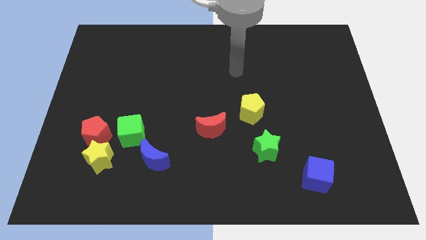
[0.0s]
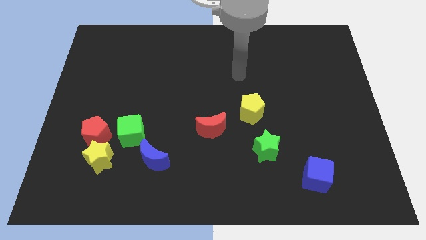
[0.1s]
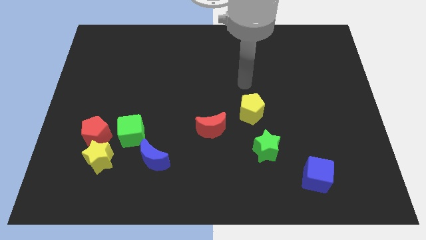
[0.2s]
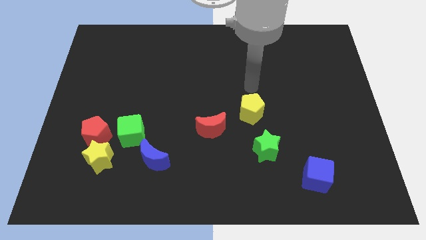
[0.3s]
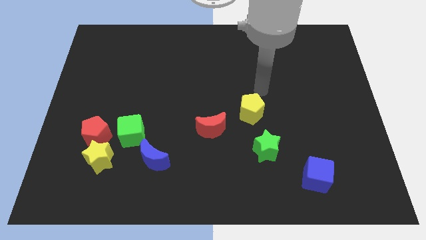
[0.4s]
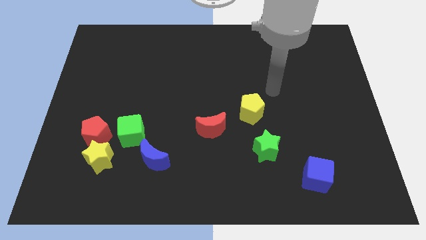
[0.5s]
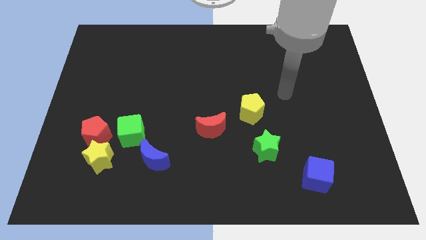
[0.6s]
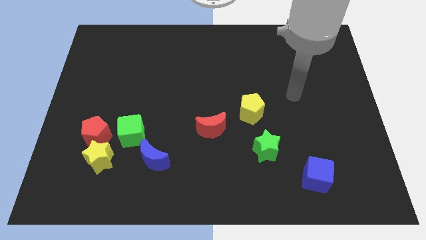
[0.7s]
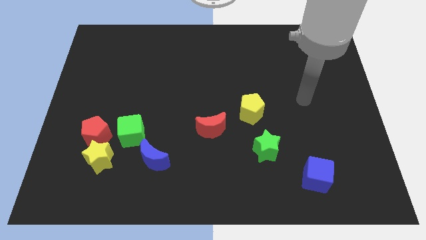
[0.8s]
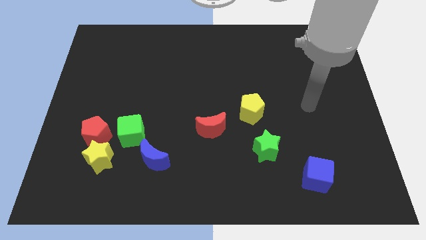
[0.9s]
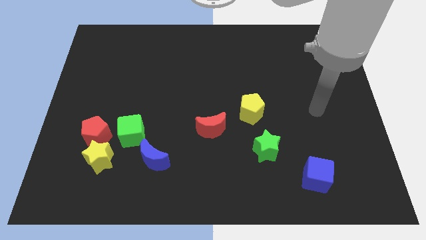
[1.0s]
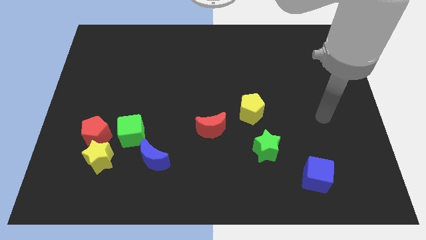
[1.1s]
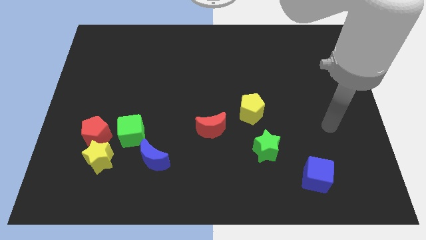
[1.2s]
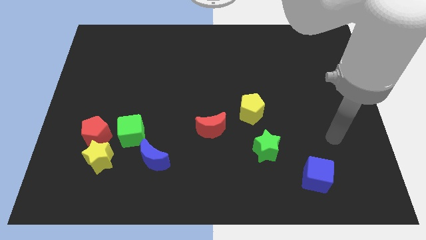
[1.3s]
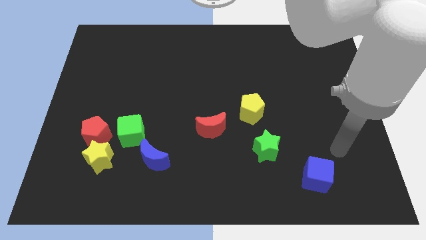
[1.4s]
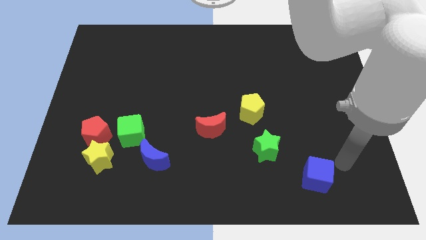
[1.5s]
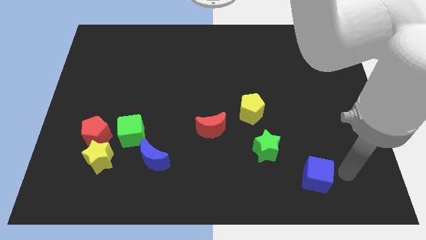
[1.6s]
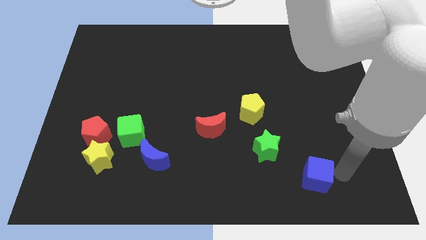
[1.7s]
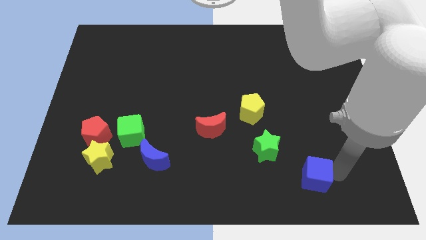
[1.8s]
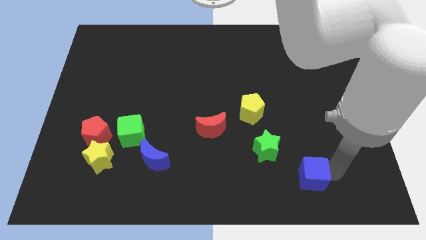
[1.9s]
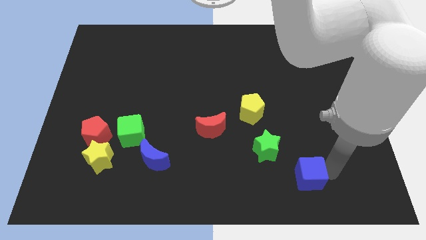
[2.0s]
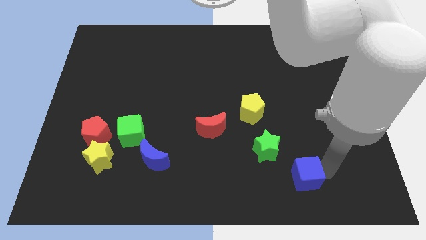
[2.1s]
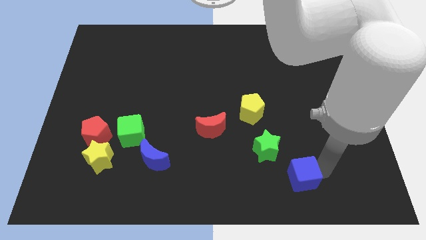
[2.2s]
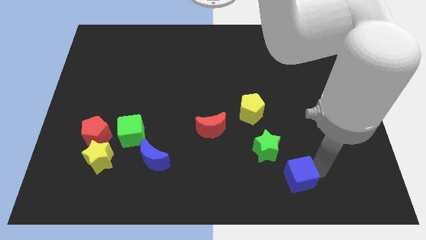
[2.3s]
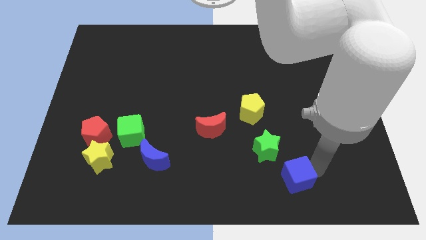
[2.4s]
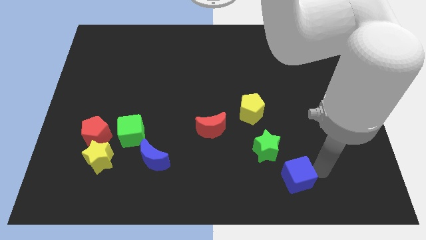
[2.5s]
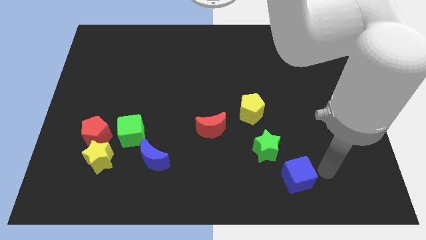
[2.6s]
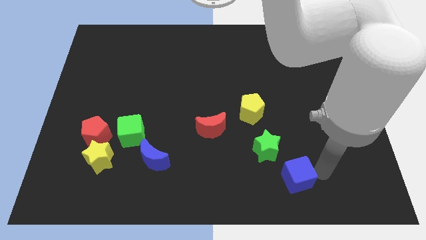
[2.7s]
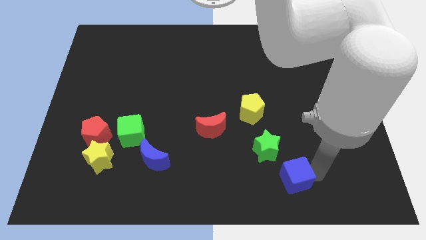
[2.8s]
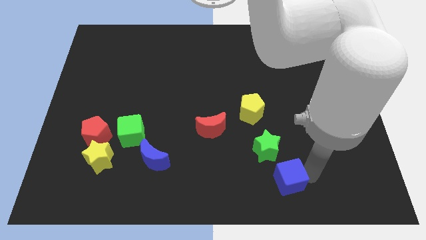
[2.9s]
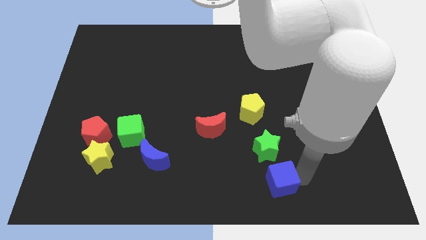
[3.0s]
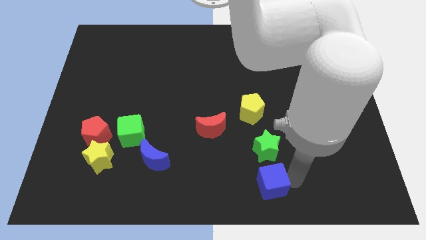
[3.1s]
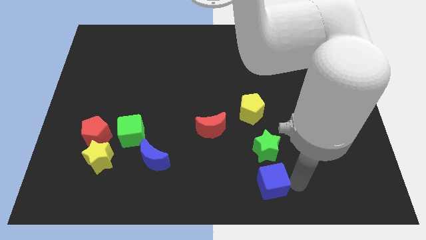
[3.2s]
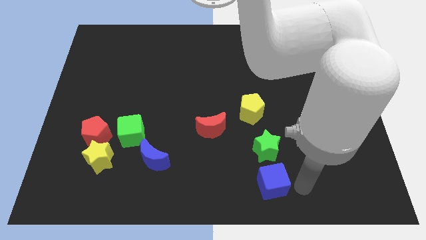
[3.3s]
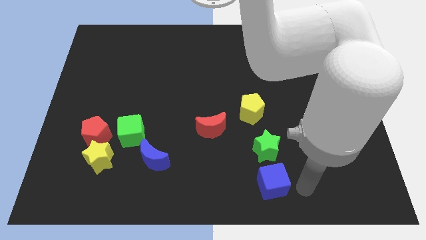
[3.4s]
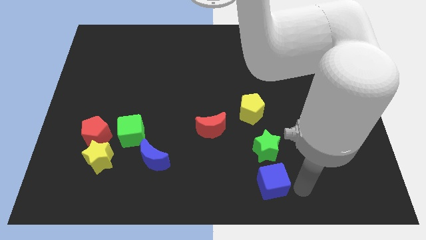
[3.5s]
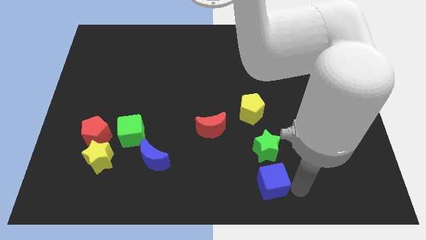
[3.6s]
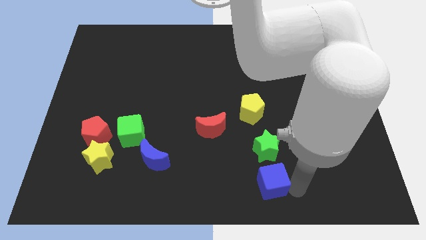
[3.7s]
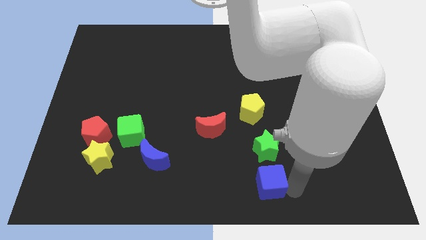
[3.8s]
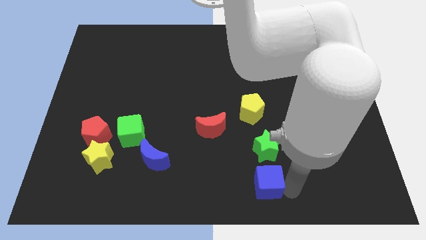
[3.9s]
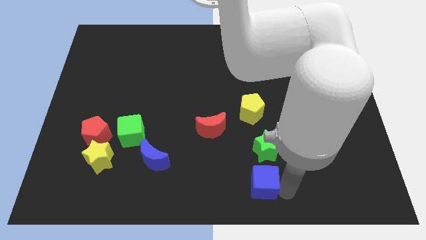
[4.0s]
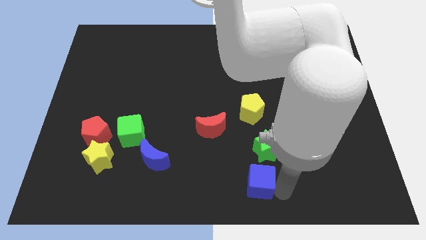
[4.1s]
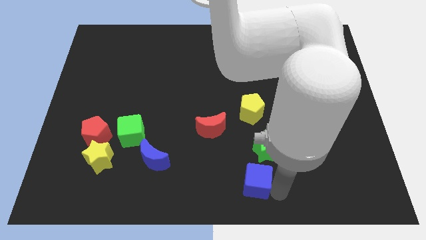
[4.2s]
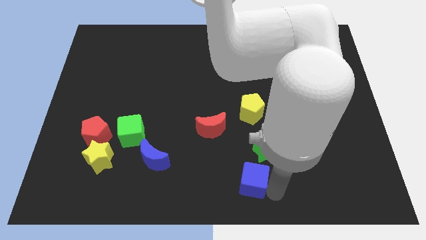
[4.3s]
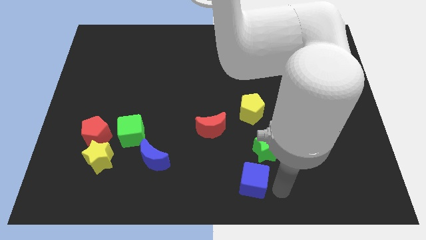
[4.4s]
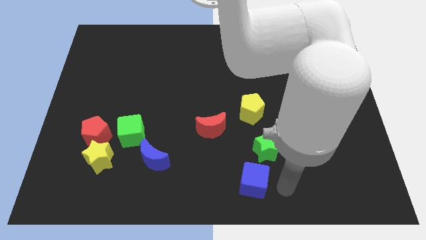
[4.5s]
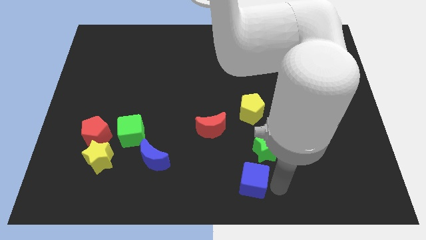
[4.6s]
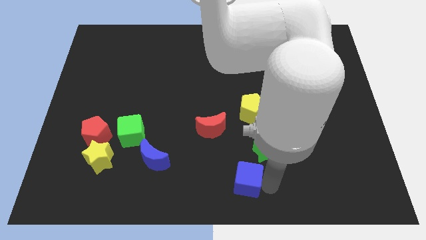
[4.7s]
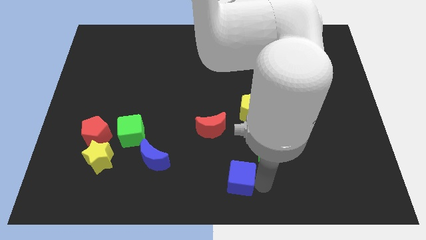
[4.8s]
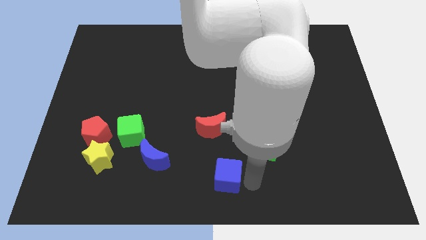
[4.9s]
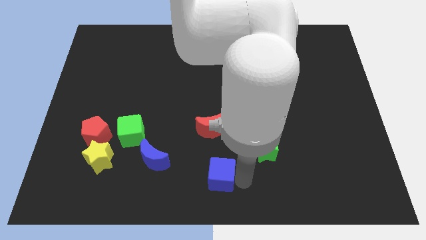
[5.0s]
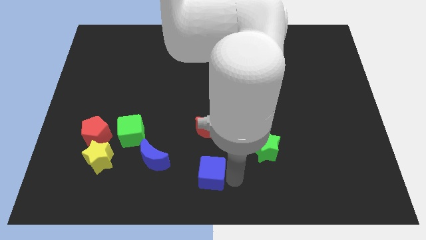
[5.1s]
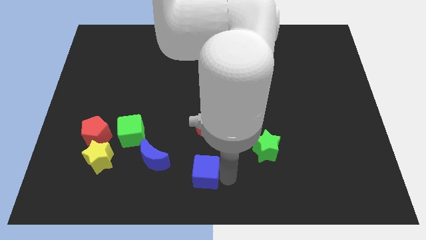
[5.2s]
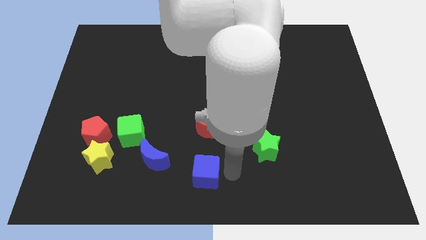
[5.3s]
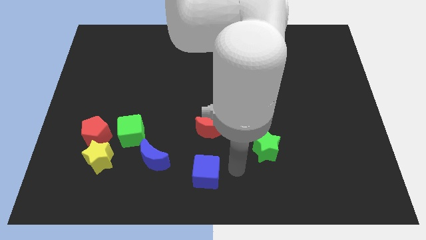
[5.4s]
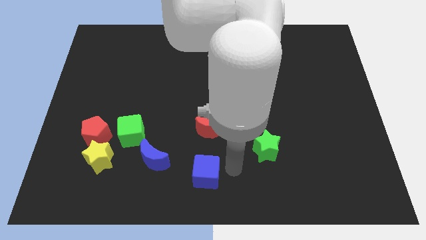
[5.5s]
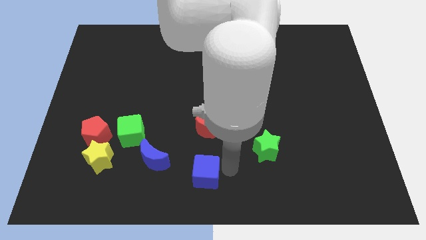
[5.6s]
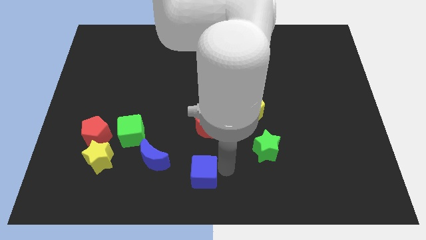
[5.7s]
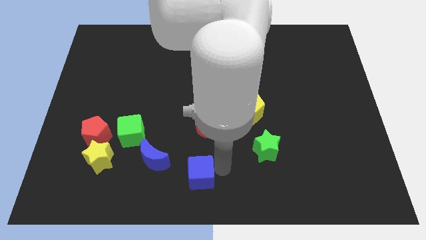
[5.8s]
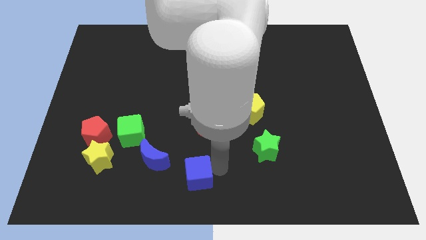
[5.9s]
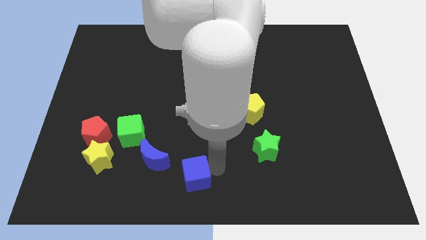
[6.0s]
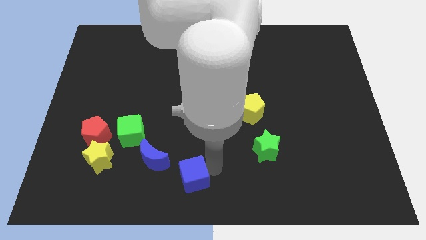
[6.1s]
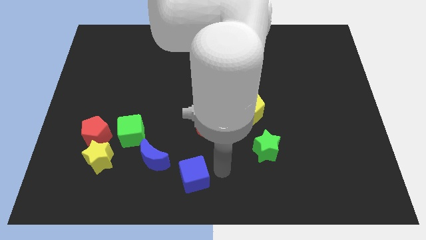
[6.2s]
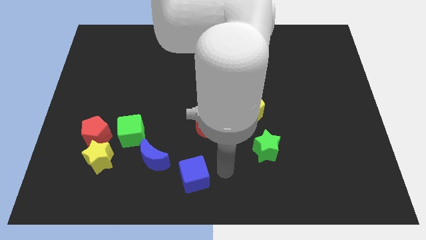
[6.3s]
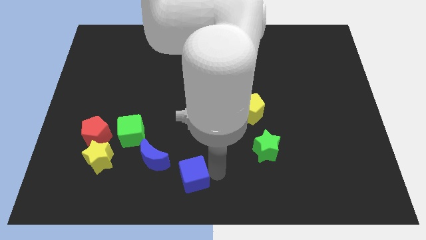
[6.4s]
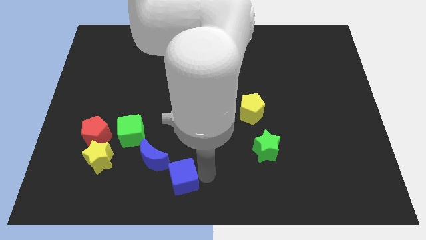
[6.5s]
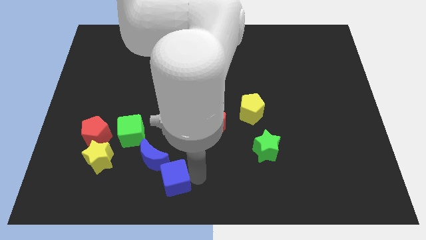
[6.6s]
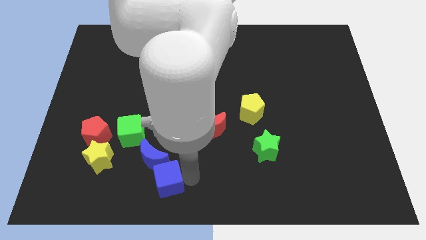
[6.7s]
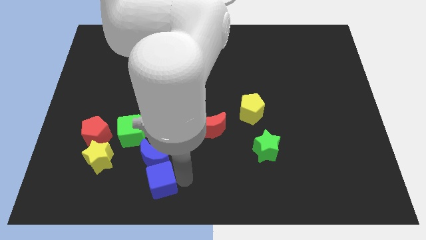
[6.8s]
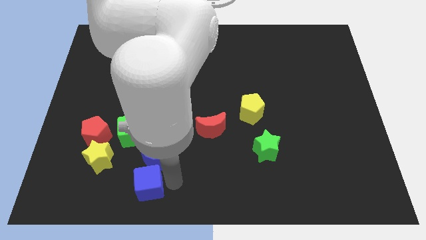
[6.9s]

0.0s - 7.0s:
slide the blue cube diagonally down and to the right of the yellow star

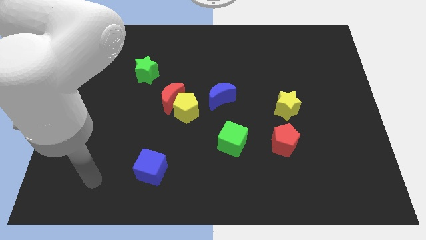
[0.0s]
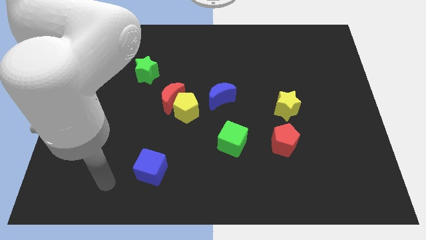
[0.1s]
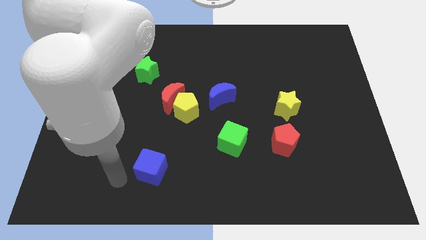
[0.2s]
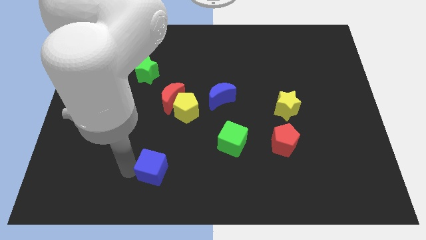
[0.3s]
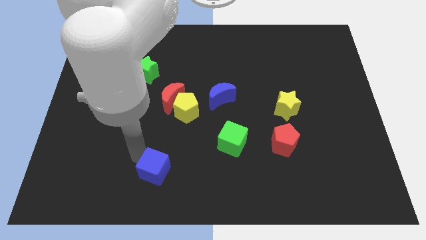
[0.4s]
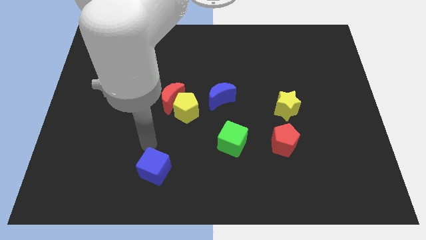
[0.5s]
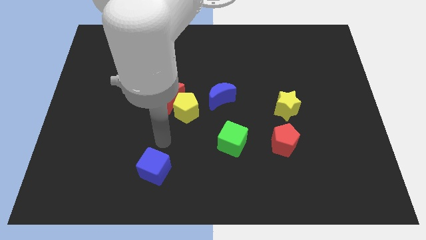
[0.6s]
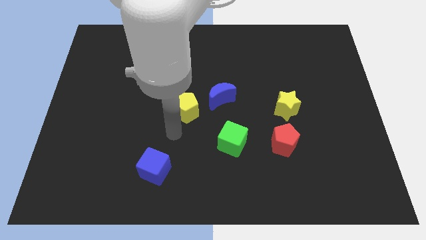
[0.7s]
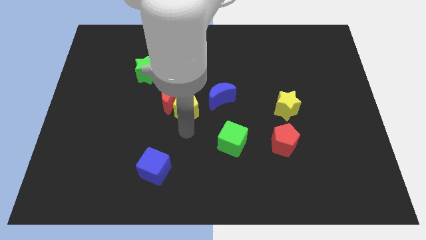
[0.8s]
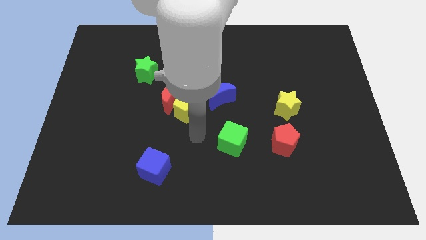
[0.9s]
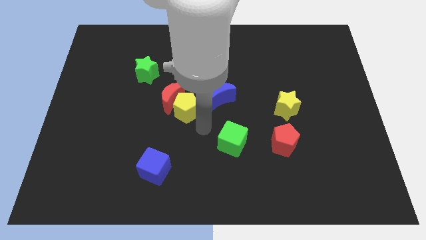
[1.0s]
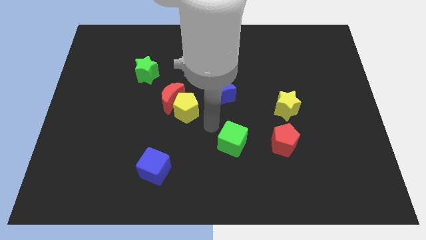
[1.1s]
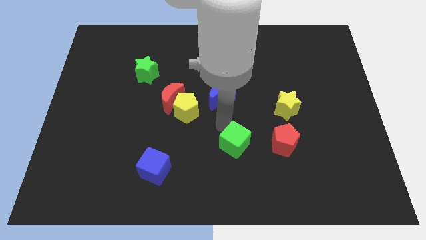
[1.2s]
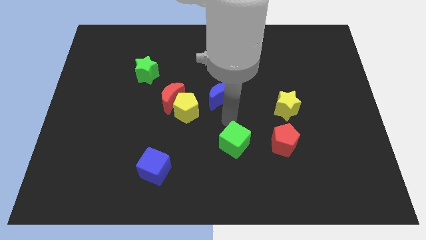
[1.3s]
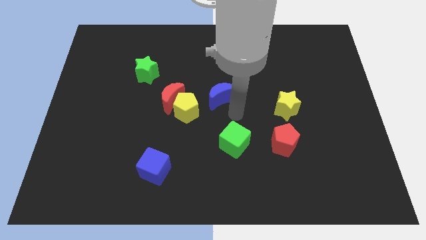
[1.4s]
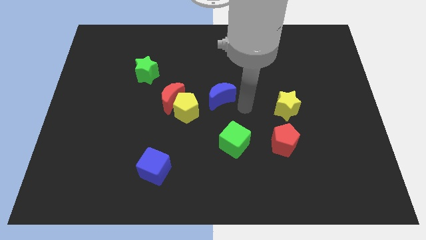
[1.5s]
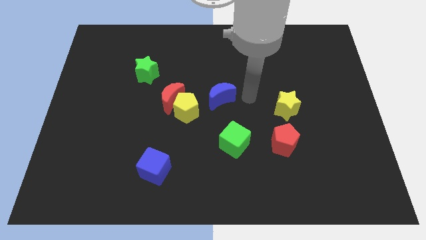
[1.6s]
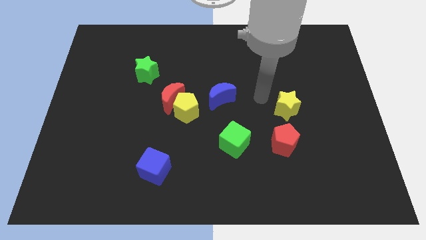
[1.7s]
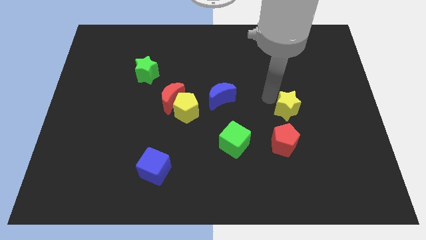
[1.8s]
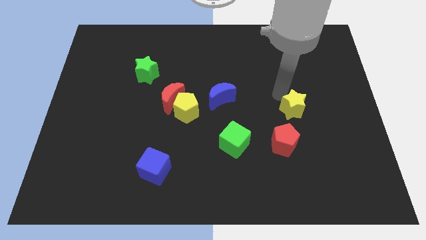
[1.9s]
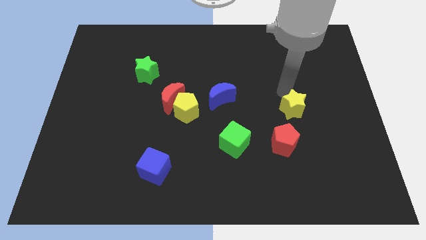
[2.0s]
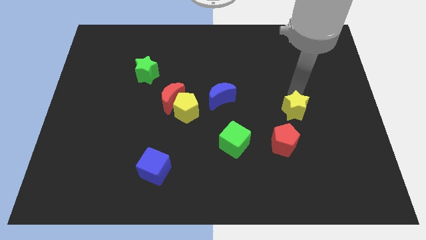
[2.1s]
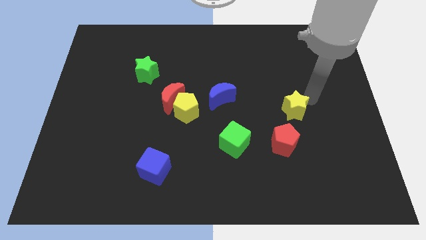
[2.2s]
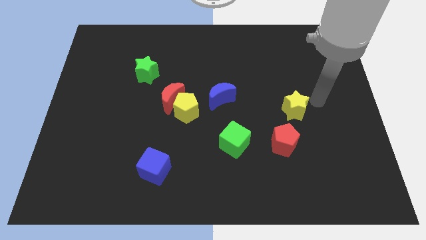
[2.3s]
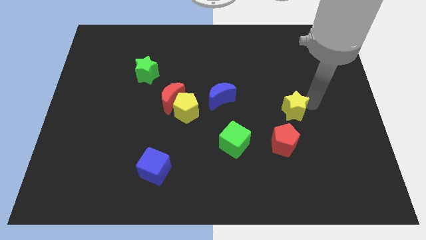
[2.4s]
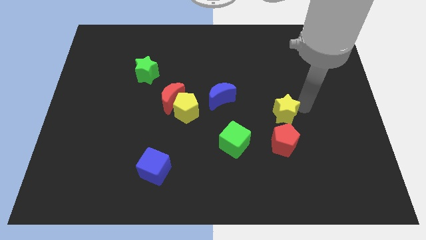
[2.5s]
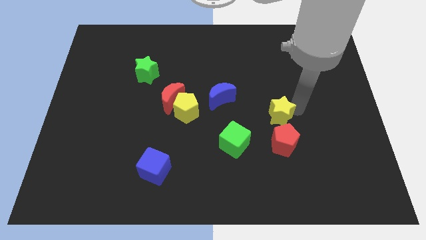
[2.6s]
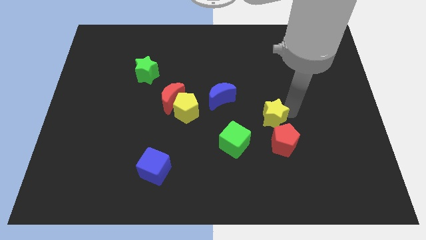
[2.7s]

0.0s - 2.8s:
move the yellow star to the top left side of the red pentagon
